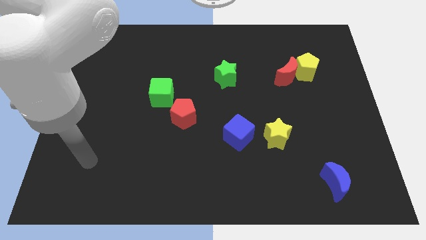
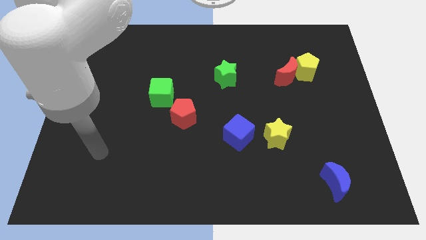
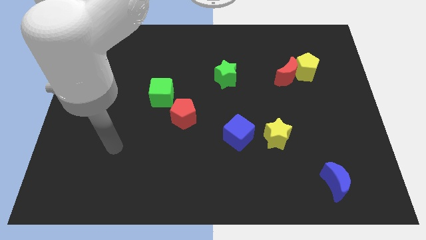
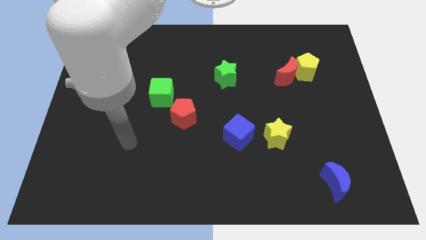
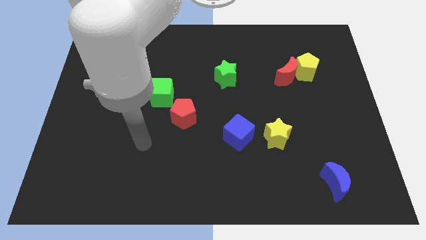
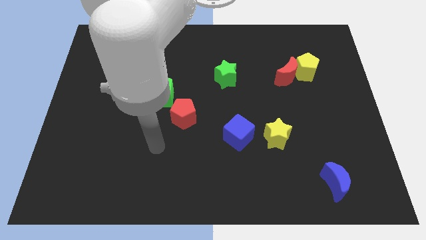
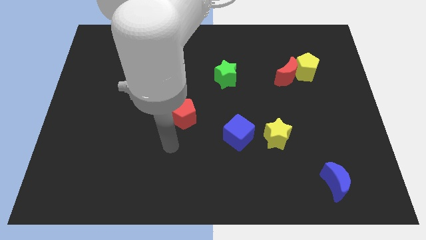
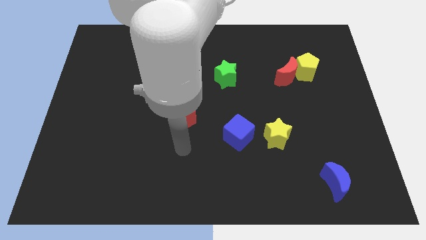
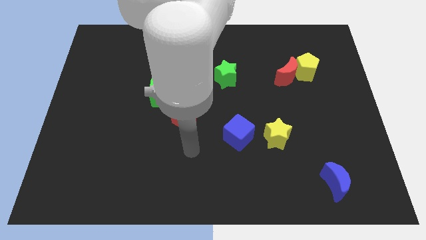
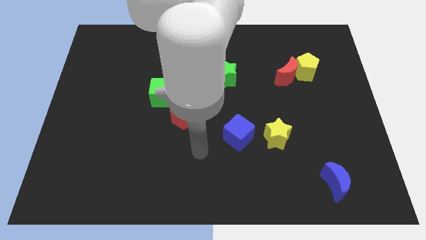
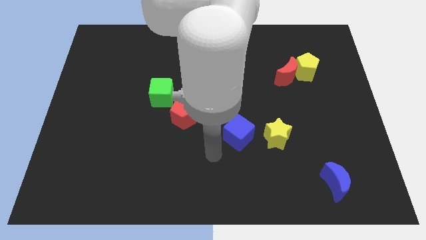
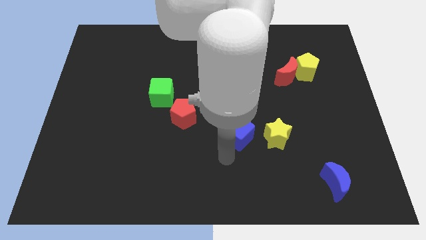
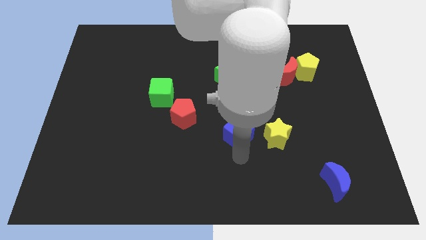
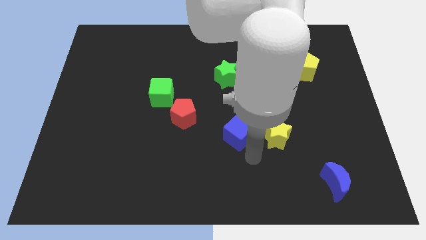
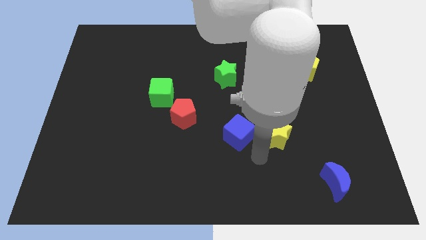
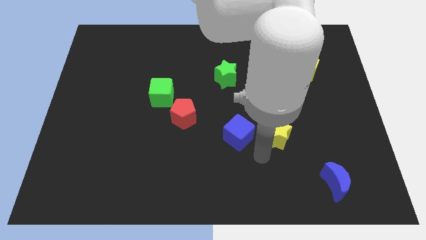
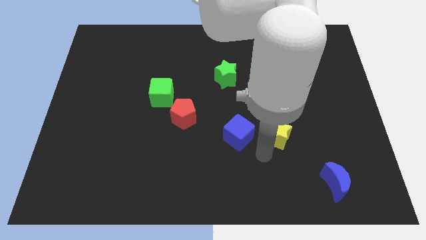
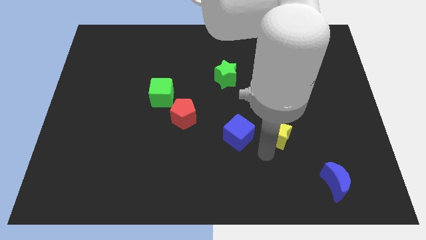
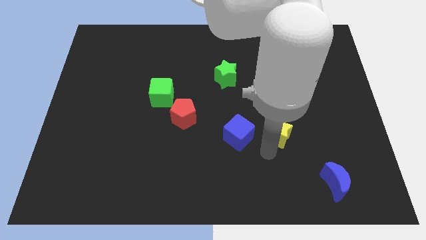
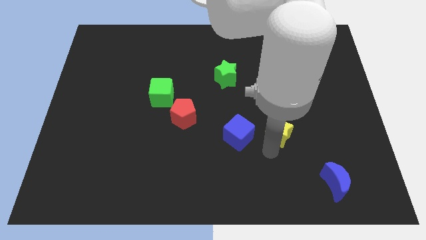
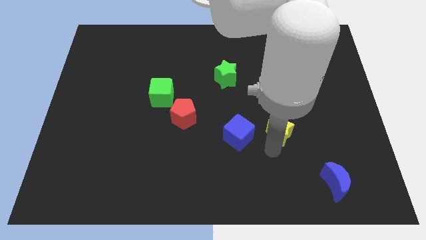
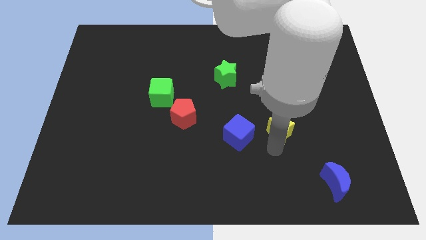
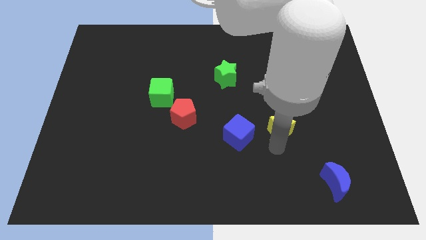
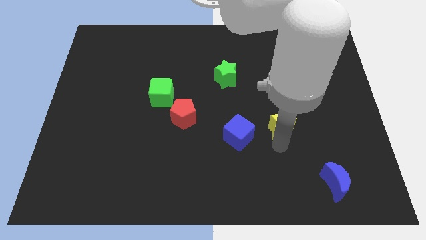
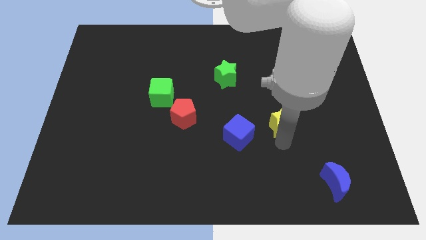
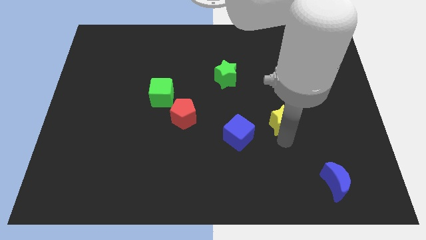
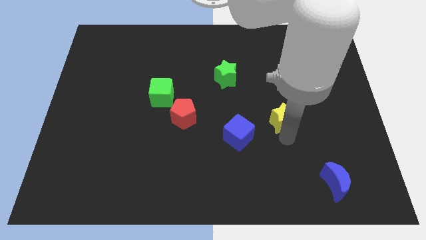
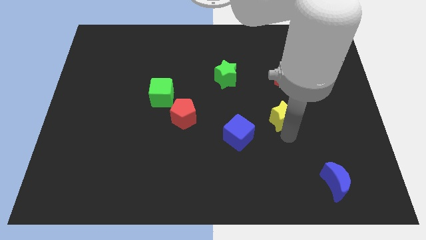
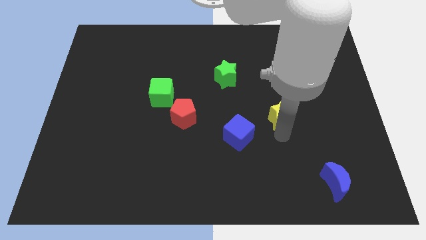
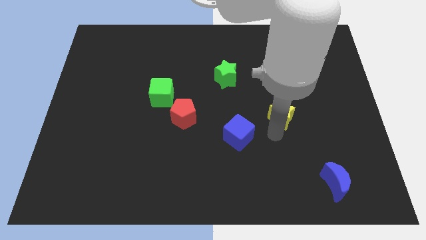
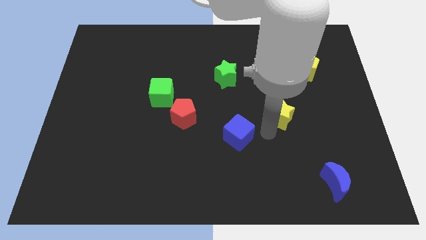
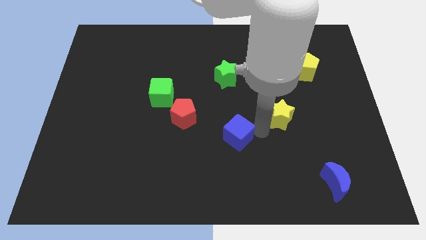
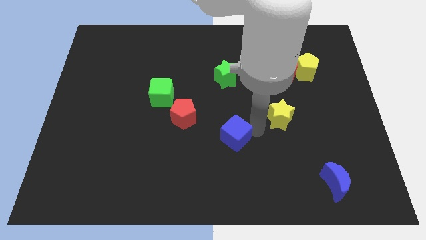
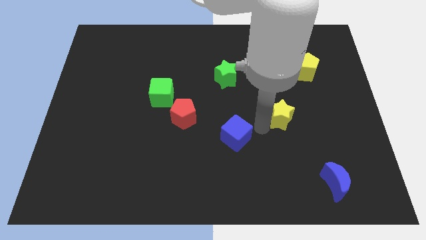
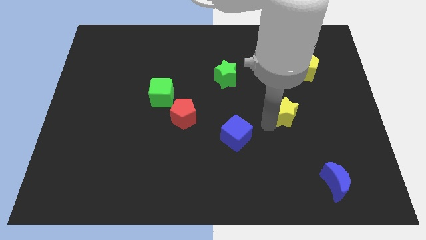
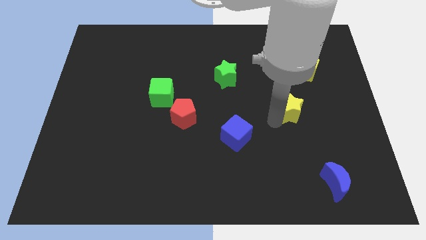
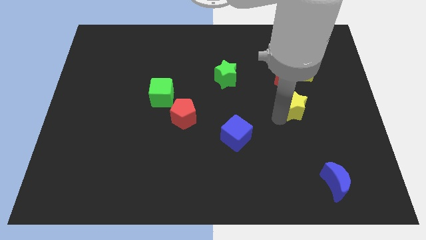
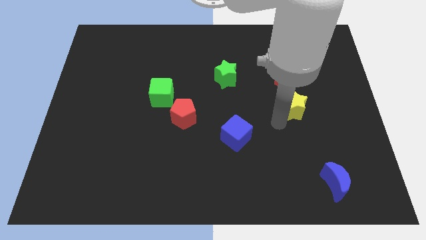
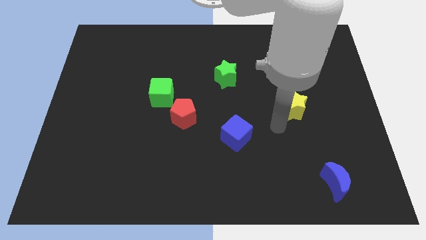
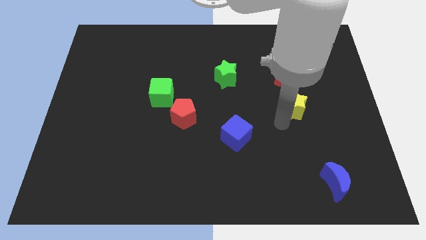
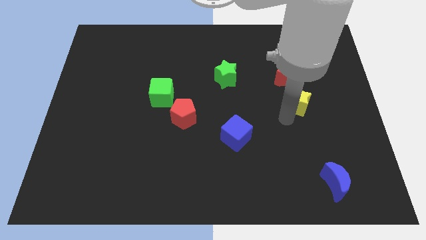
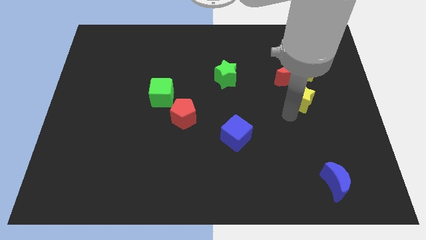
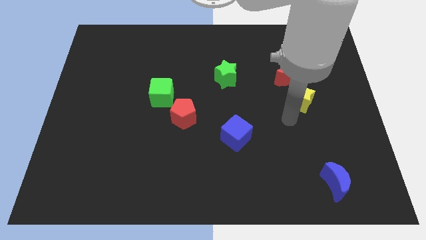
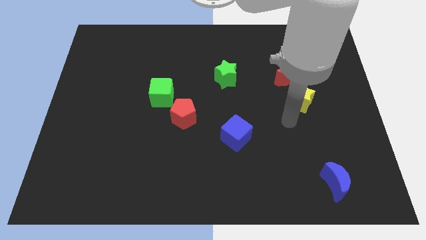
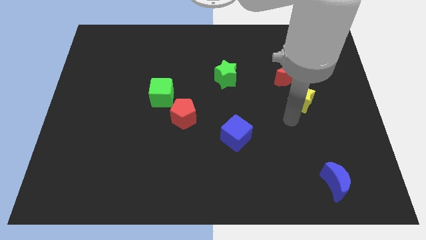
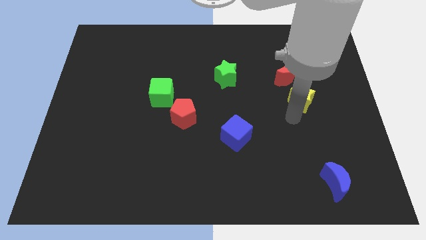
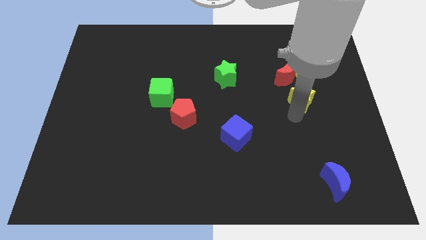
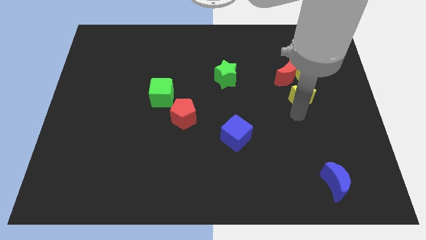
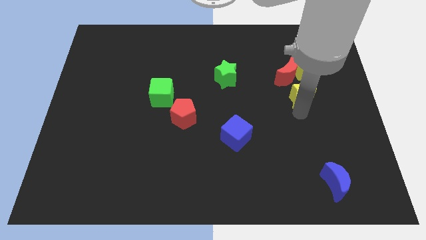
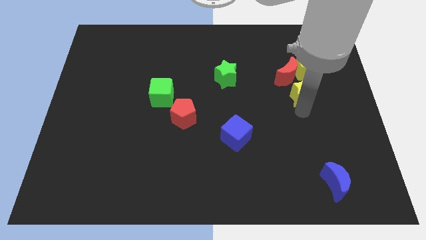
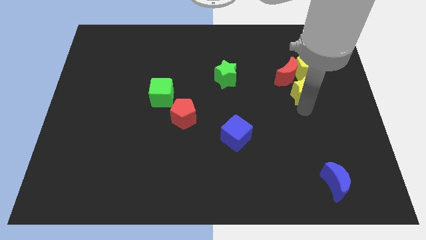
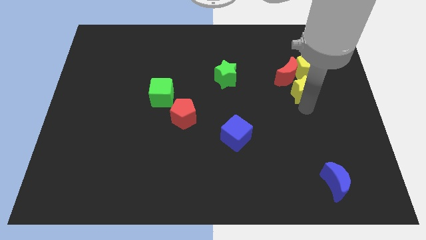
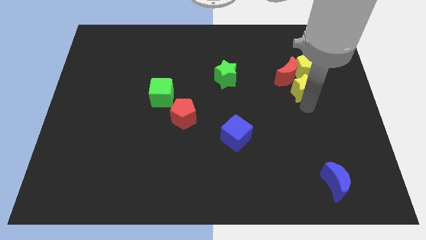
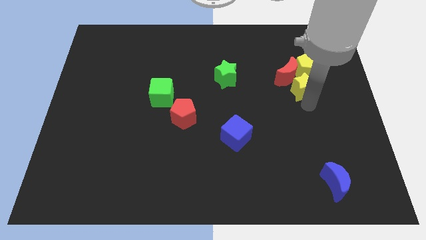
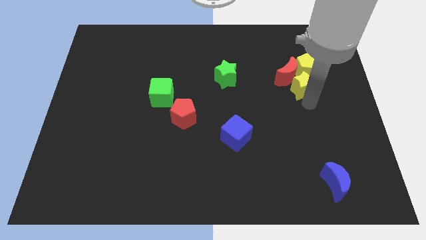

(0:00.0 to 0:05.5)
put the yellow star to the right of the red moon
